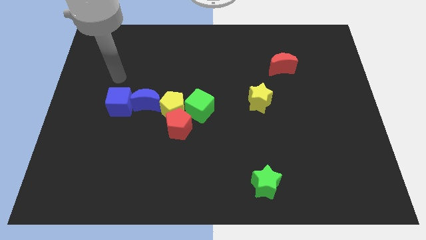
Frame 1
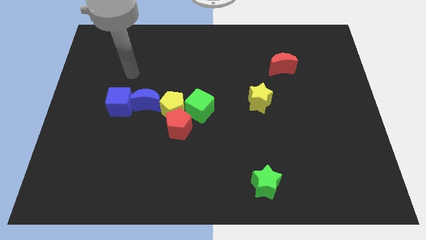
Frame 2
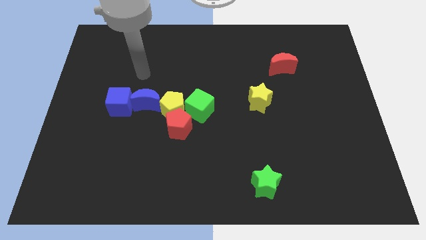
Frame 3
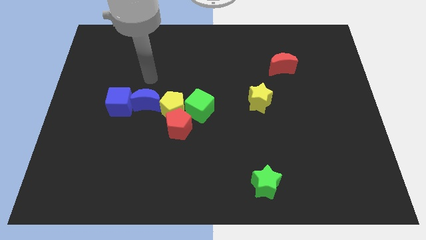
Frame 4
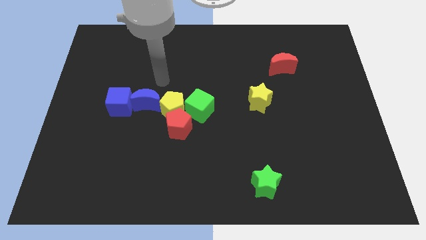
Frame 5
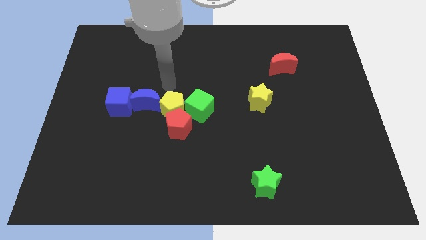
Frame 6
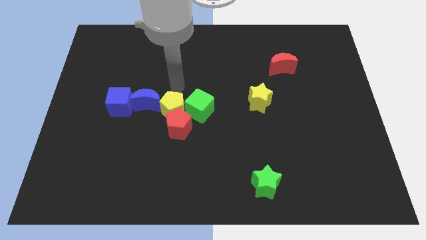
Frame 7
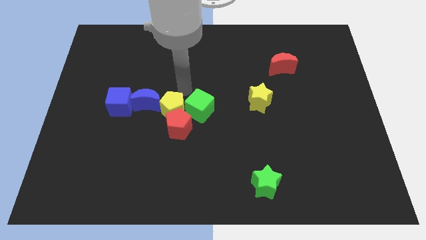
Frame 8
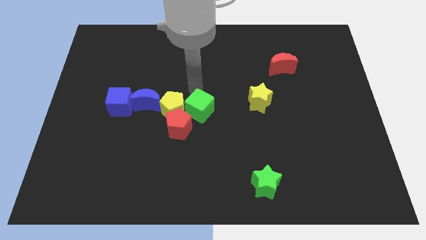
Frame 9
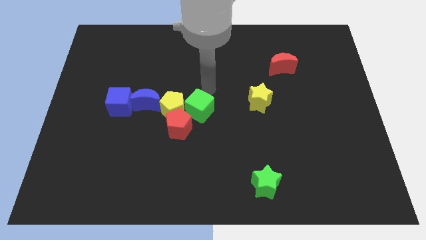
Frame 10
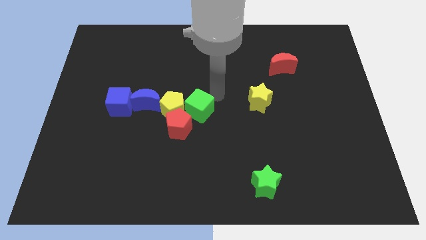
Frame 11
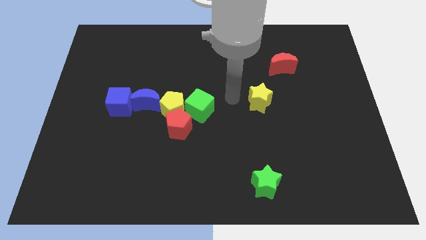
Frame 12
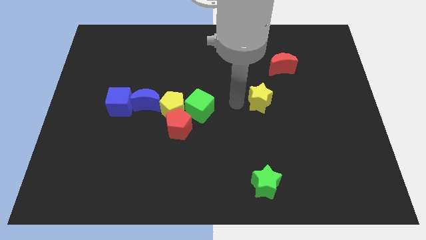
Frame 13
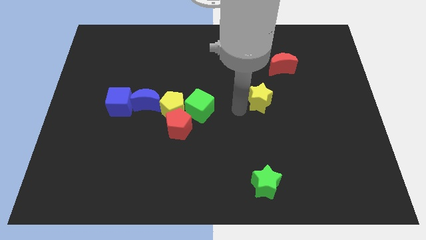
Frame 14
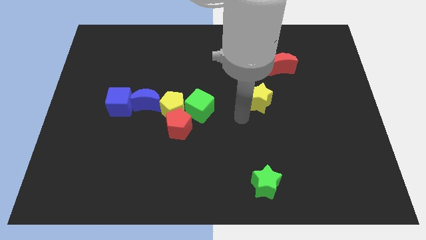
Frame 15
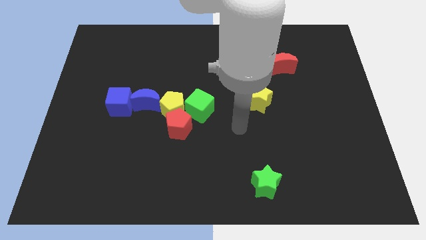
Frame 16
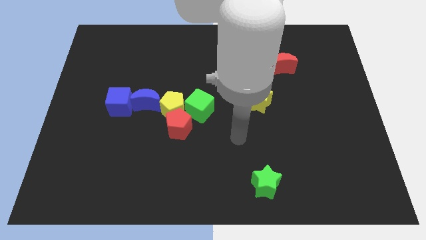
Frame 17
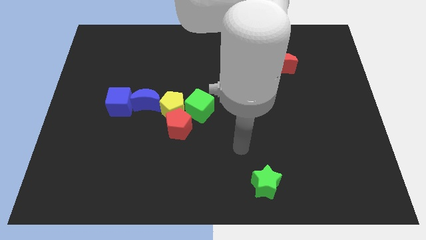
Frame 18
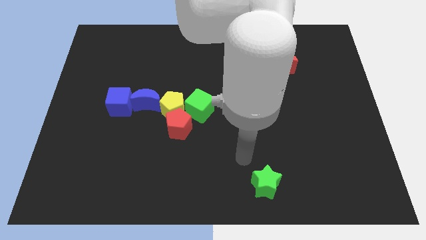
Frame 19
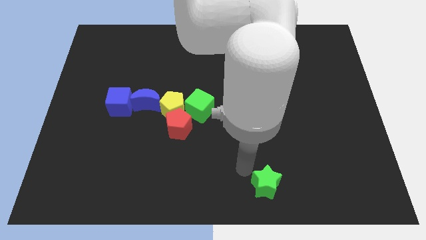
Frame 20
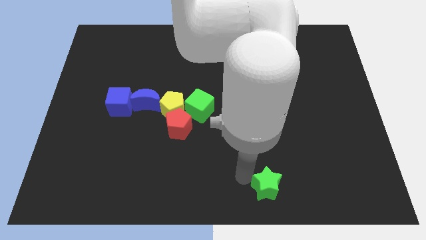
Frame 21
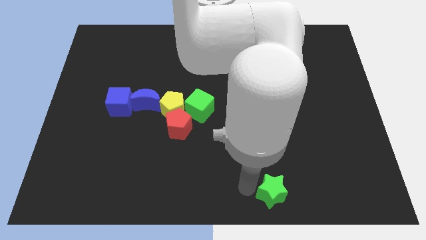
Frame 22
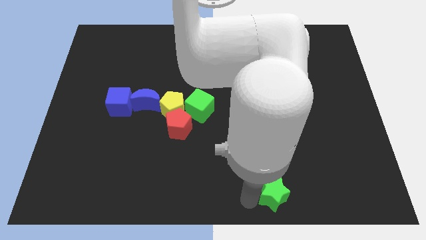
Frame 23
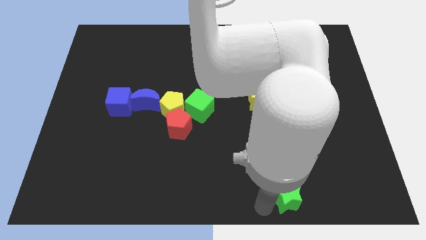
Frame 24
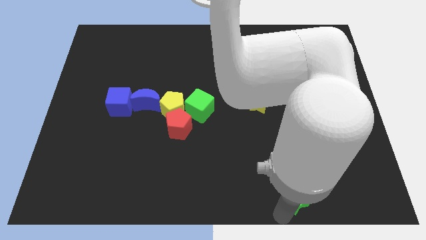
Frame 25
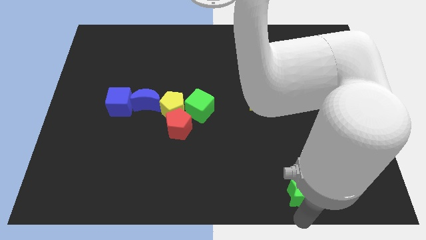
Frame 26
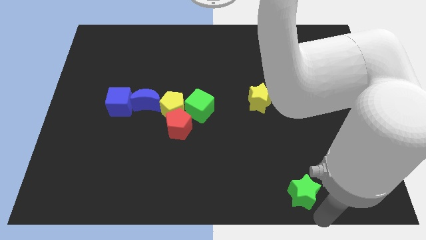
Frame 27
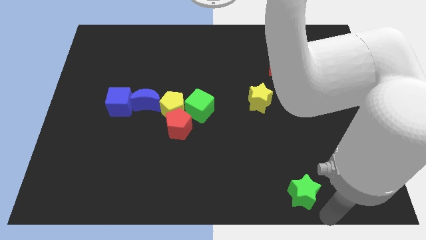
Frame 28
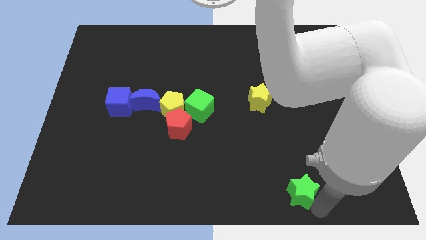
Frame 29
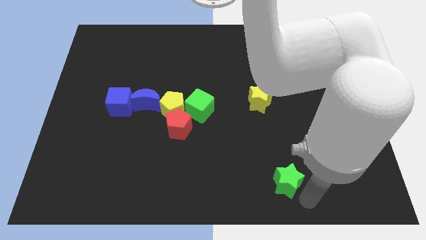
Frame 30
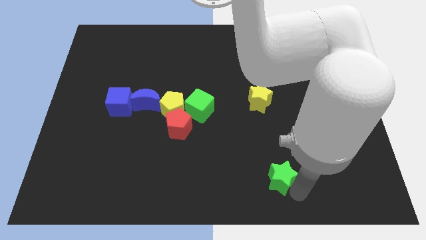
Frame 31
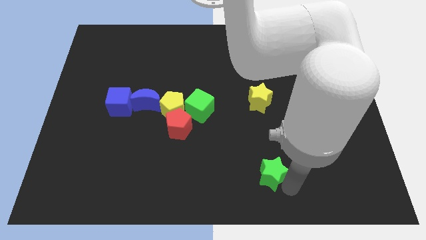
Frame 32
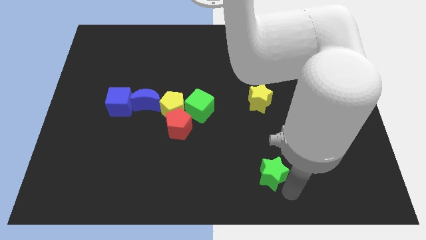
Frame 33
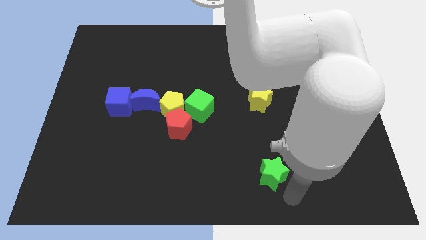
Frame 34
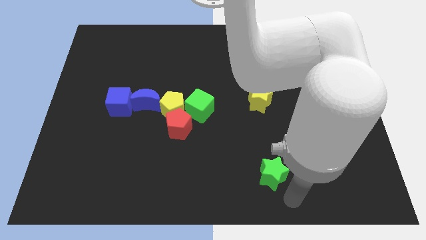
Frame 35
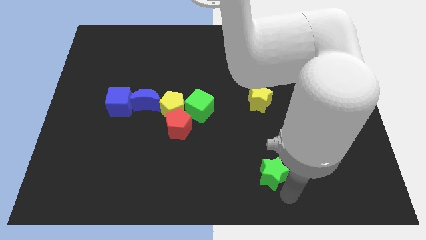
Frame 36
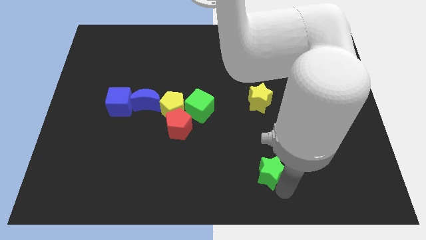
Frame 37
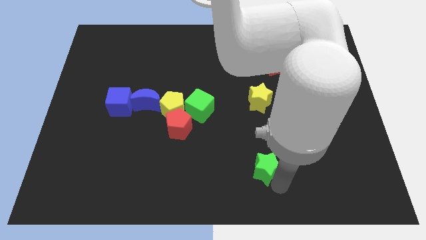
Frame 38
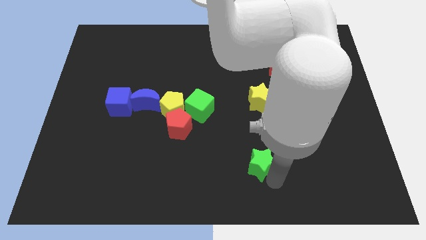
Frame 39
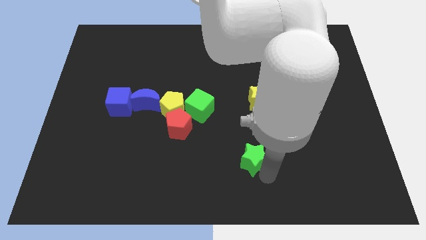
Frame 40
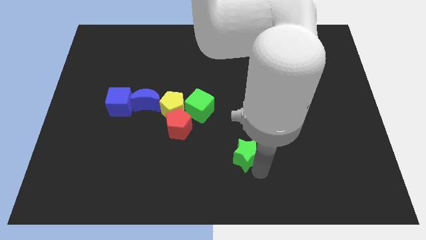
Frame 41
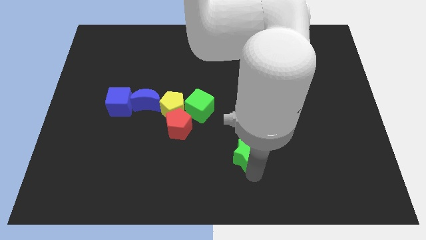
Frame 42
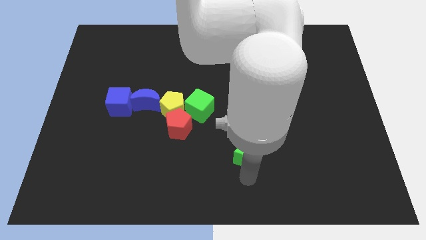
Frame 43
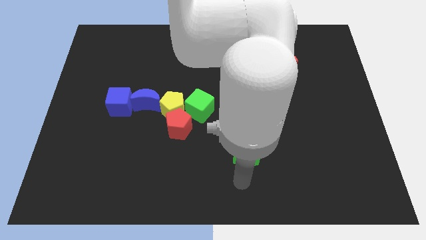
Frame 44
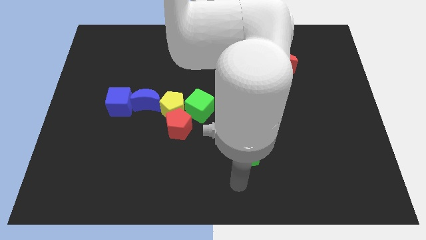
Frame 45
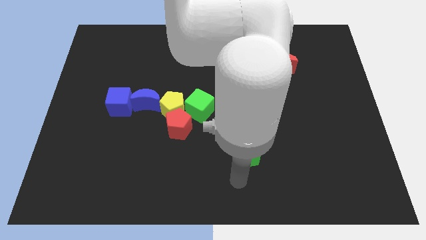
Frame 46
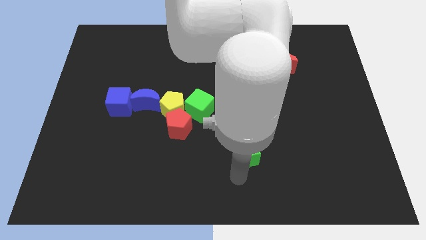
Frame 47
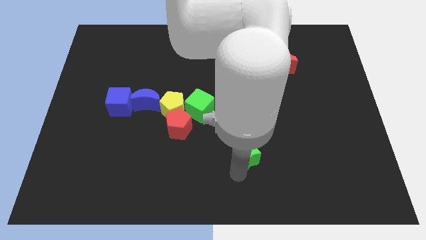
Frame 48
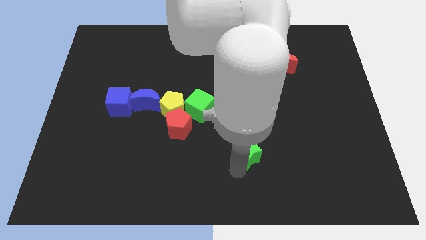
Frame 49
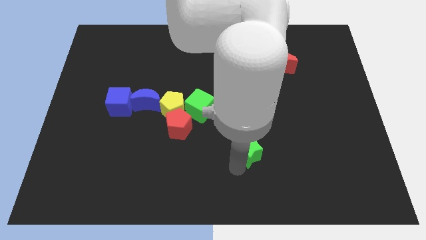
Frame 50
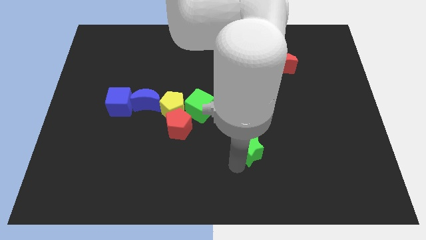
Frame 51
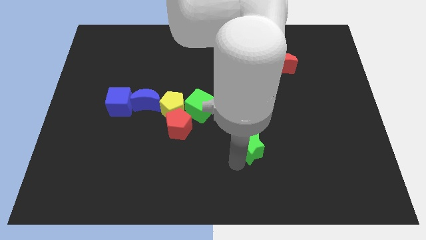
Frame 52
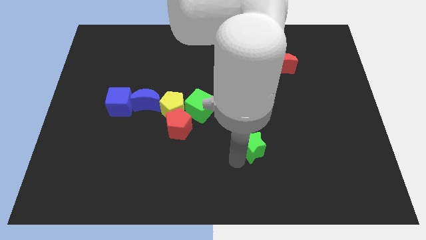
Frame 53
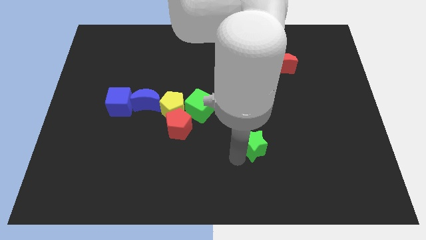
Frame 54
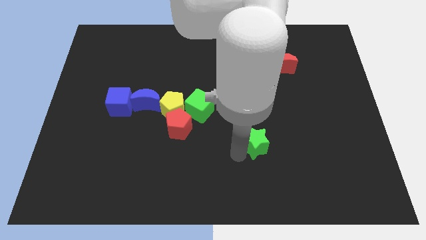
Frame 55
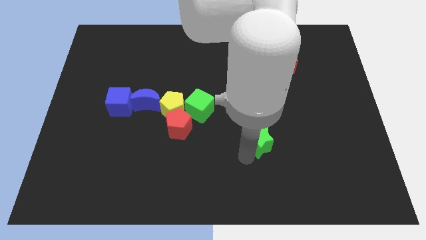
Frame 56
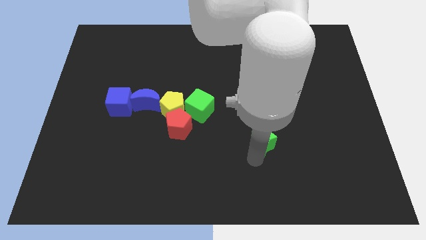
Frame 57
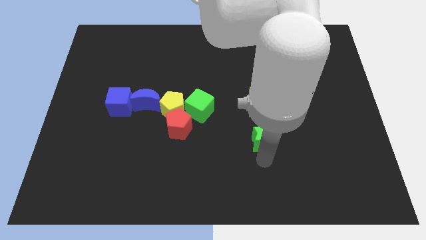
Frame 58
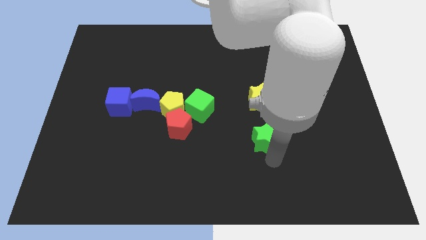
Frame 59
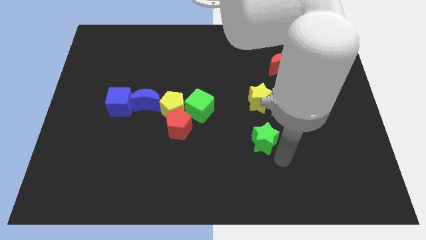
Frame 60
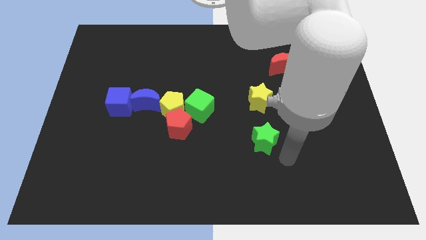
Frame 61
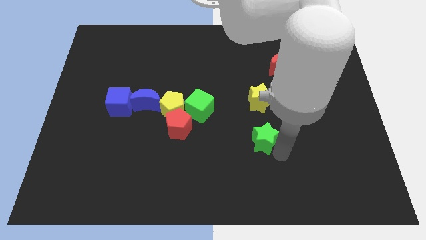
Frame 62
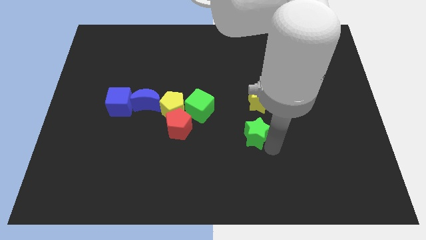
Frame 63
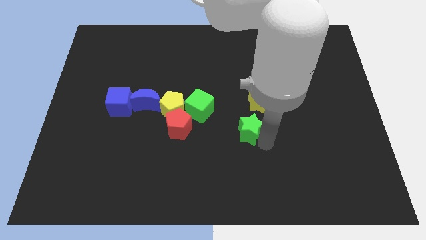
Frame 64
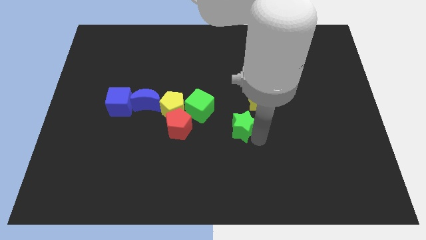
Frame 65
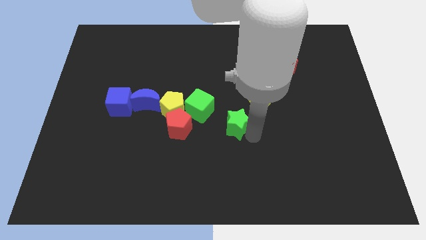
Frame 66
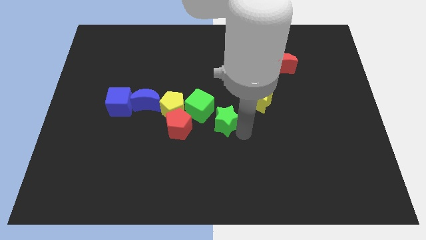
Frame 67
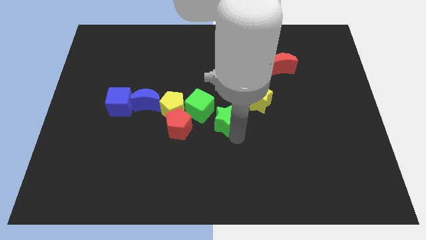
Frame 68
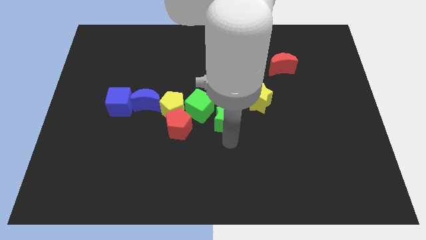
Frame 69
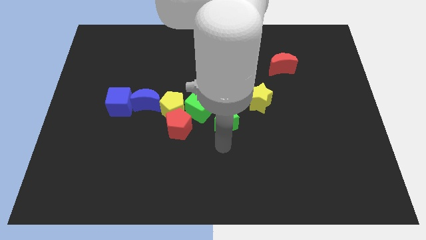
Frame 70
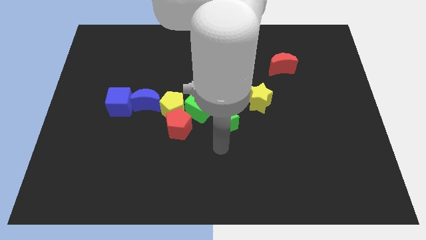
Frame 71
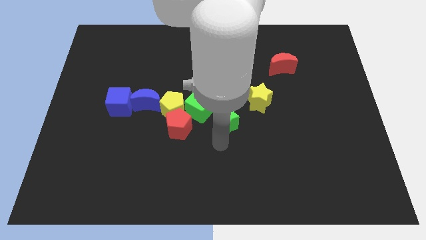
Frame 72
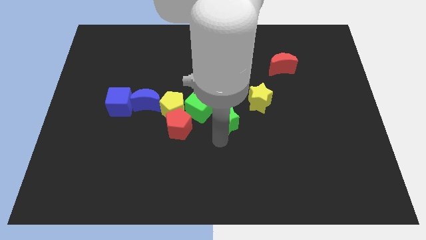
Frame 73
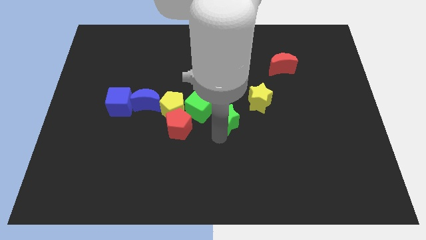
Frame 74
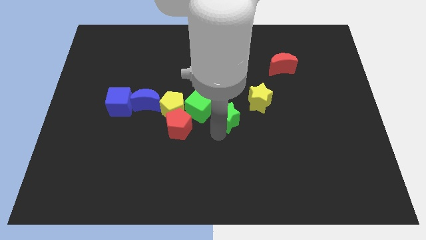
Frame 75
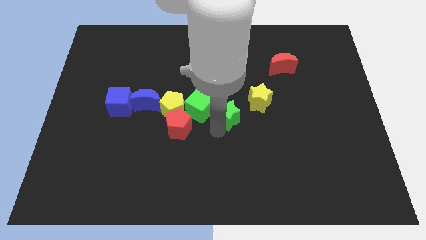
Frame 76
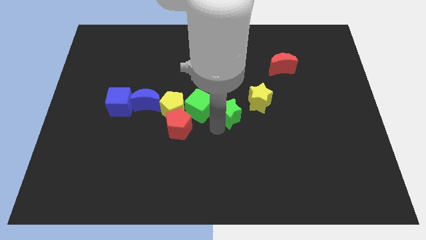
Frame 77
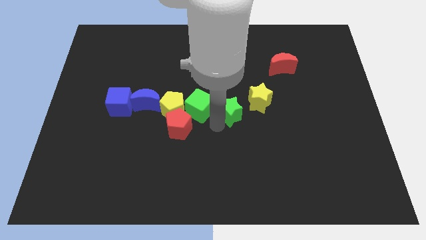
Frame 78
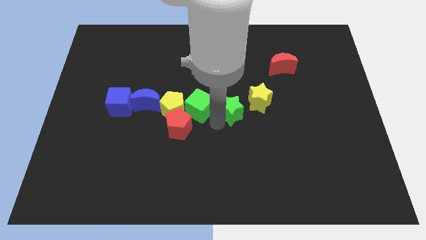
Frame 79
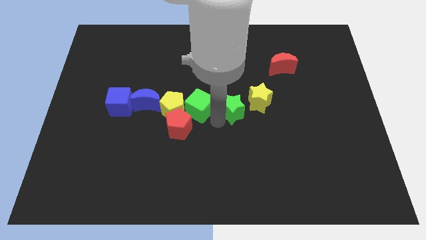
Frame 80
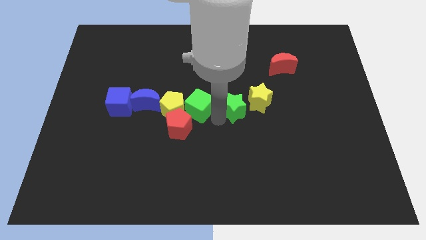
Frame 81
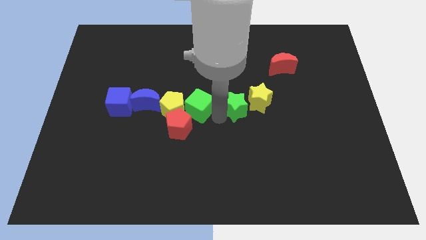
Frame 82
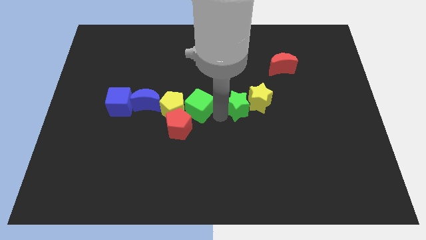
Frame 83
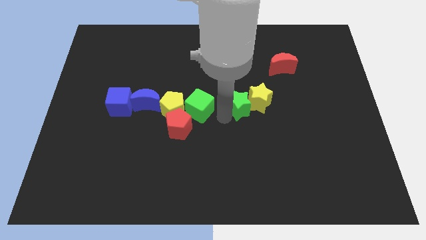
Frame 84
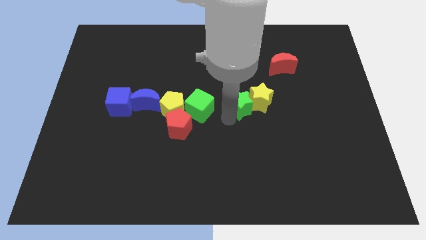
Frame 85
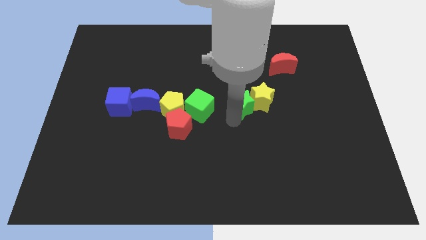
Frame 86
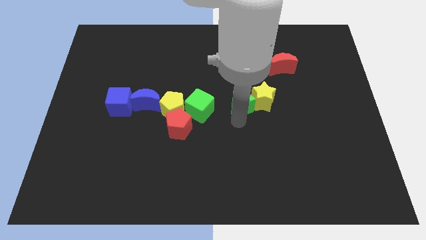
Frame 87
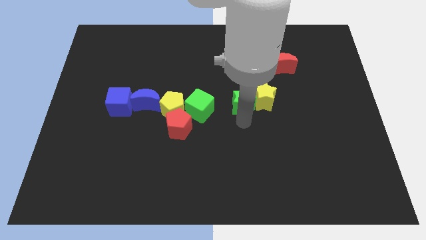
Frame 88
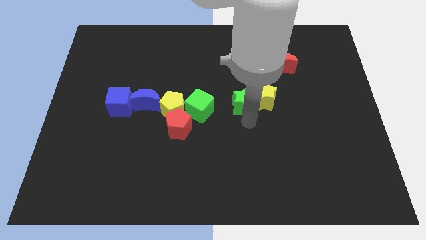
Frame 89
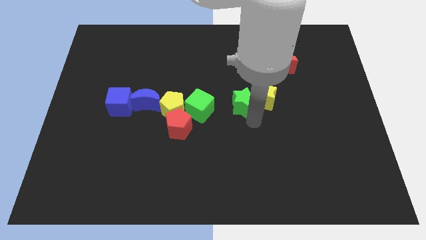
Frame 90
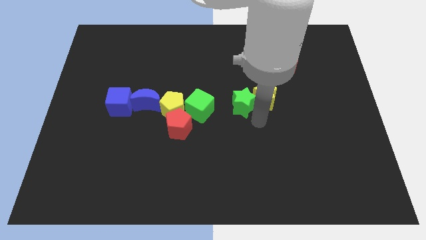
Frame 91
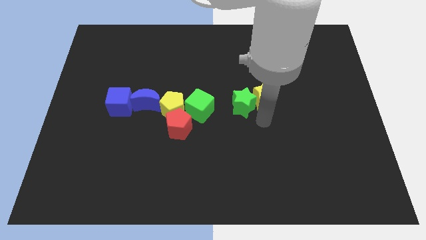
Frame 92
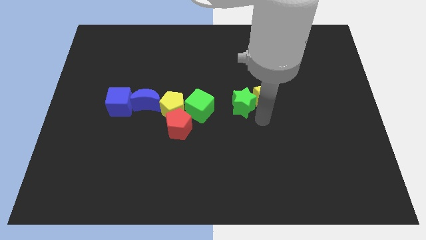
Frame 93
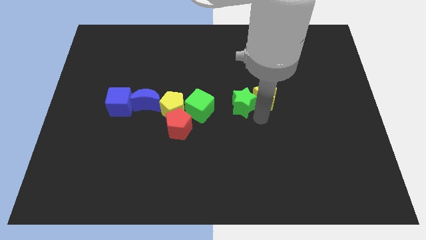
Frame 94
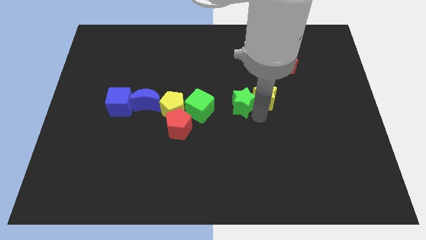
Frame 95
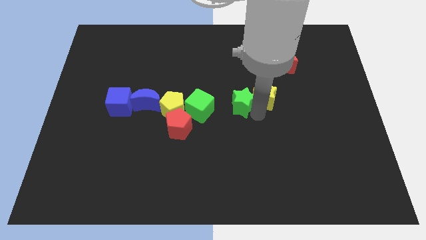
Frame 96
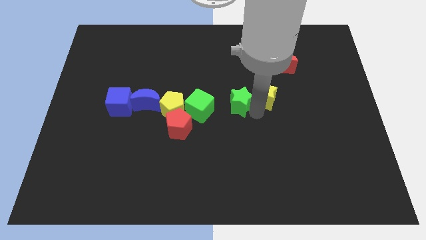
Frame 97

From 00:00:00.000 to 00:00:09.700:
slide the green star up
